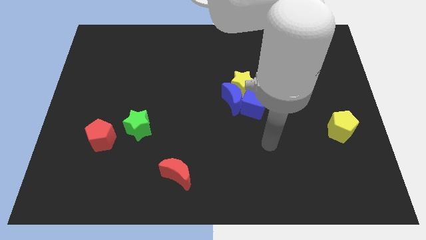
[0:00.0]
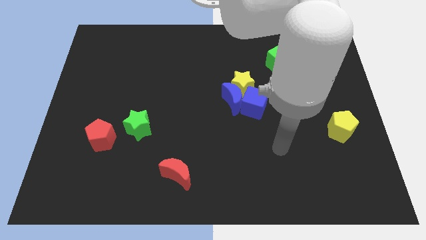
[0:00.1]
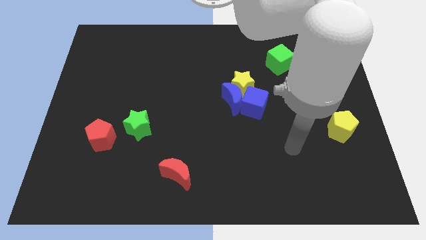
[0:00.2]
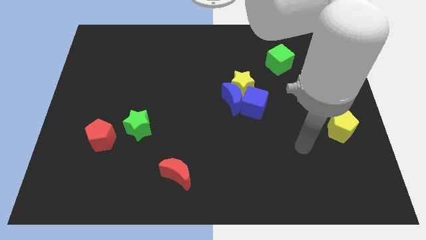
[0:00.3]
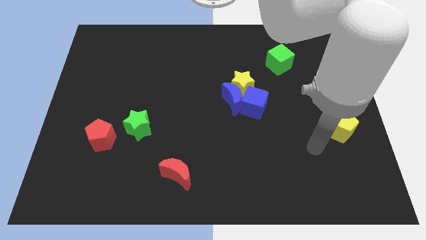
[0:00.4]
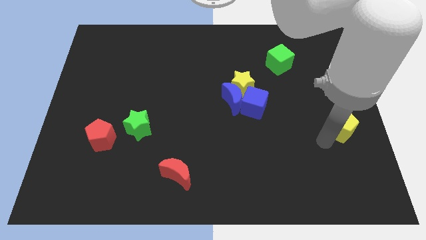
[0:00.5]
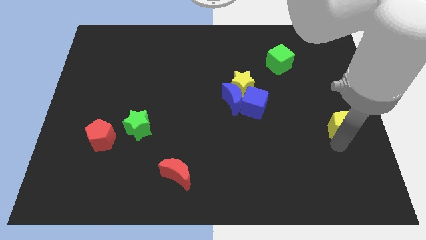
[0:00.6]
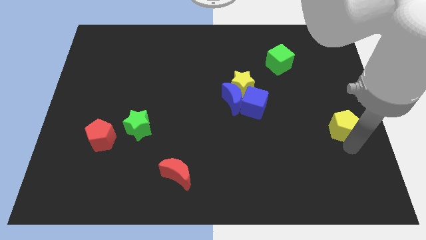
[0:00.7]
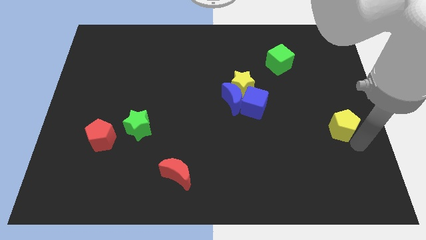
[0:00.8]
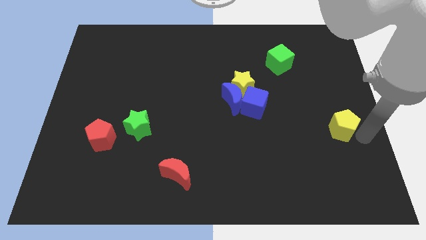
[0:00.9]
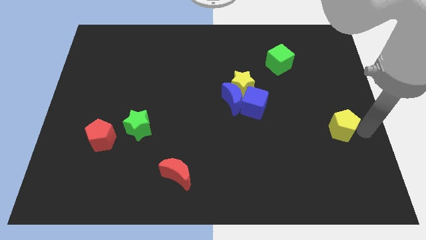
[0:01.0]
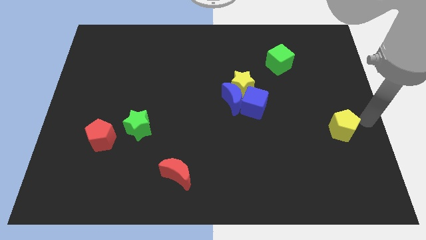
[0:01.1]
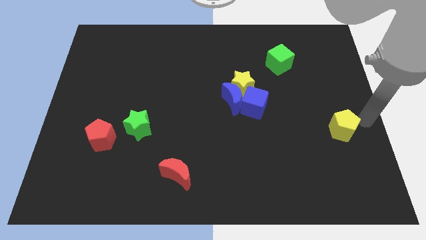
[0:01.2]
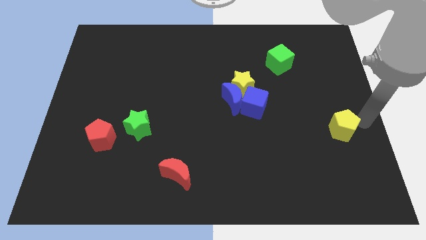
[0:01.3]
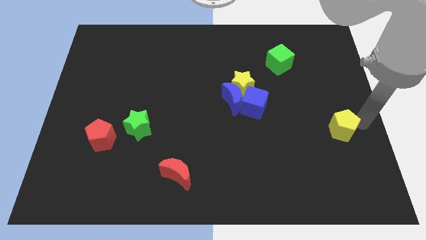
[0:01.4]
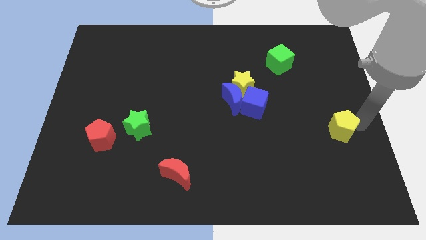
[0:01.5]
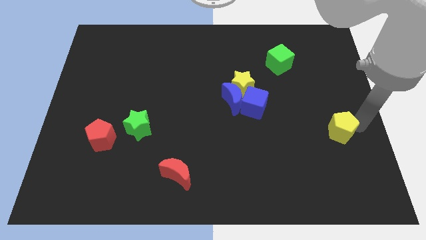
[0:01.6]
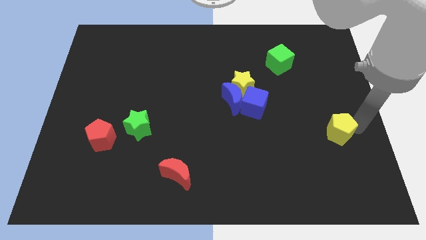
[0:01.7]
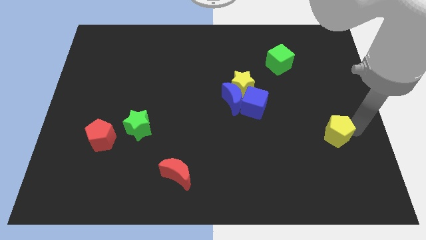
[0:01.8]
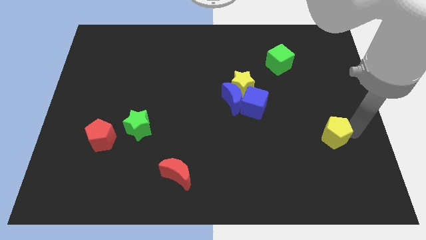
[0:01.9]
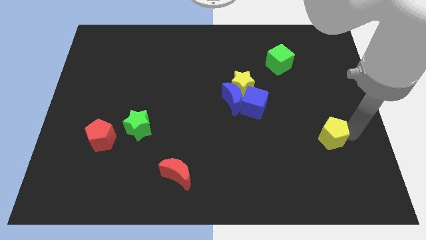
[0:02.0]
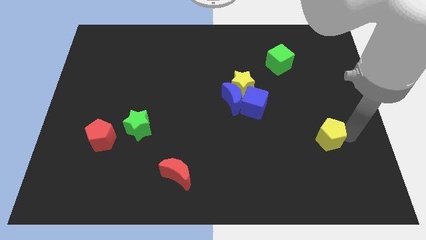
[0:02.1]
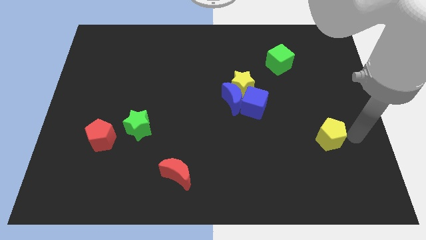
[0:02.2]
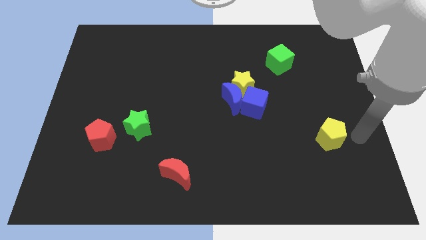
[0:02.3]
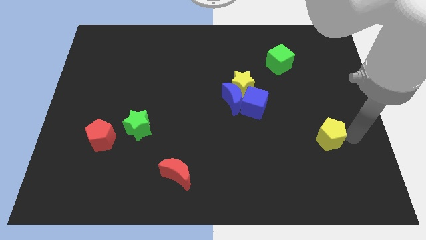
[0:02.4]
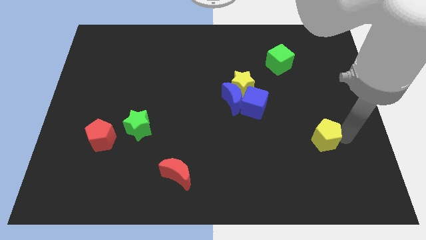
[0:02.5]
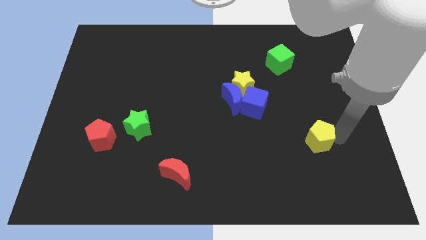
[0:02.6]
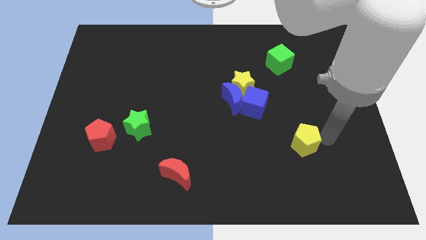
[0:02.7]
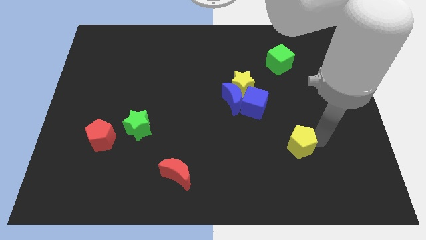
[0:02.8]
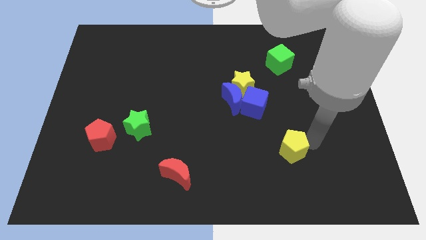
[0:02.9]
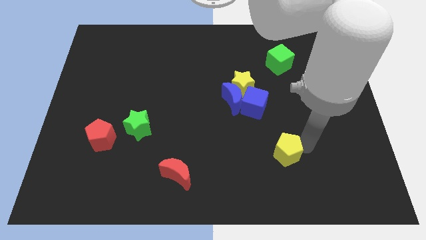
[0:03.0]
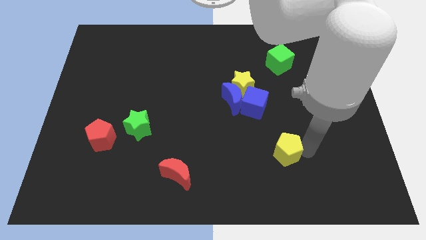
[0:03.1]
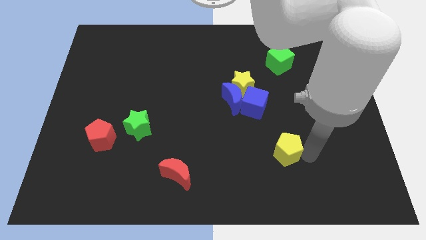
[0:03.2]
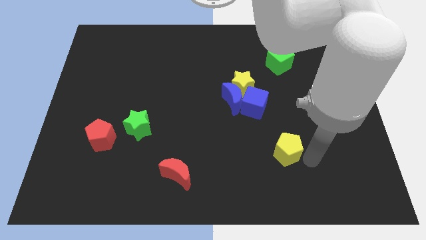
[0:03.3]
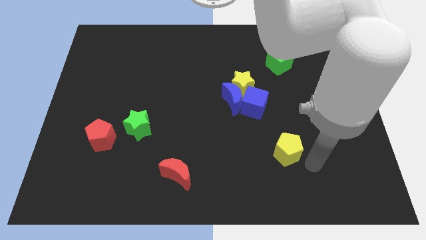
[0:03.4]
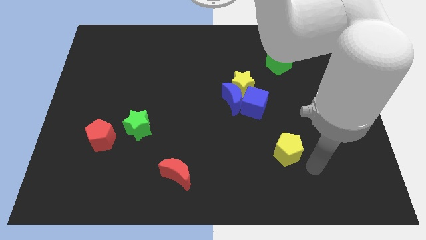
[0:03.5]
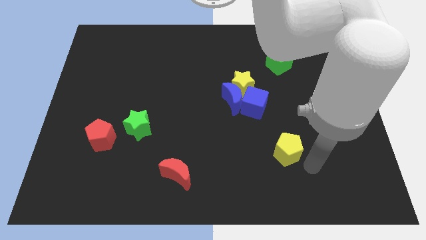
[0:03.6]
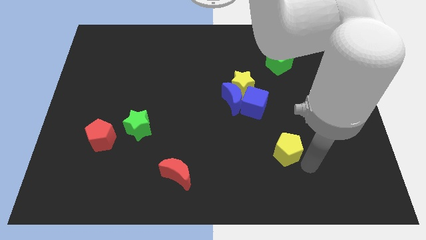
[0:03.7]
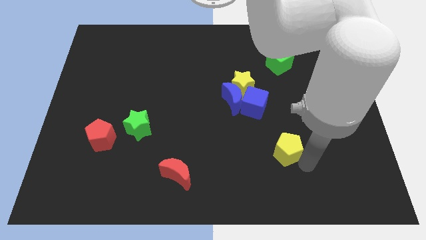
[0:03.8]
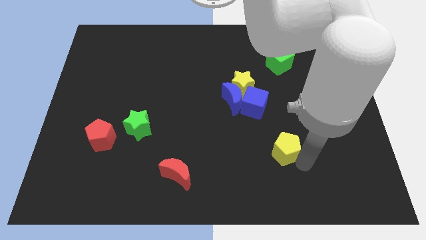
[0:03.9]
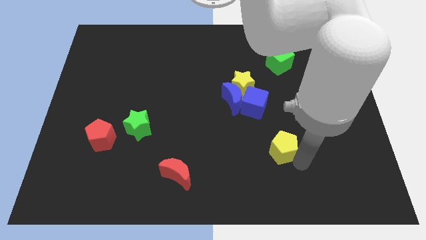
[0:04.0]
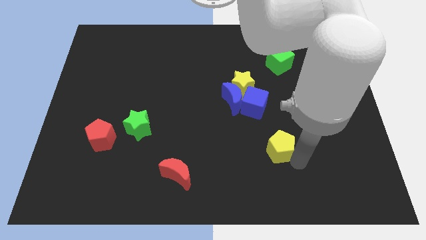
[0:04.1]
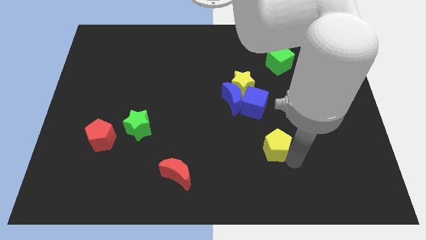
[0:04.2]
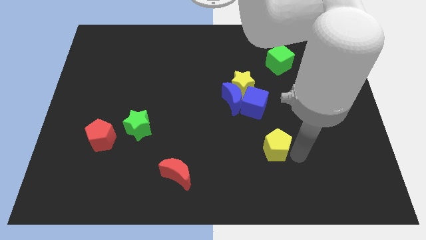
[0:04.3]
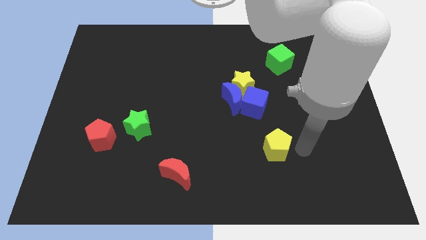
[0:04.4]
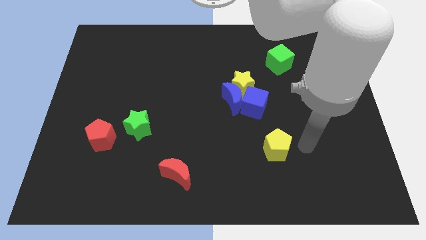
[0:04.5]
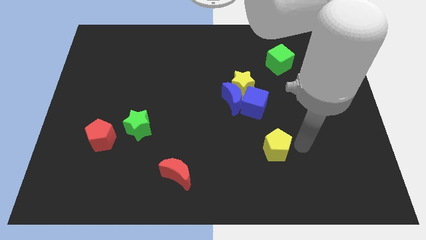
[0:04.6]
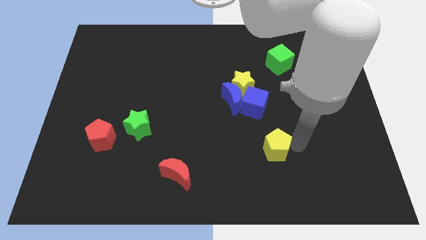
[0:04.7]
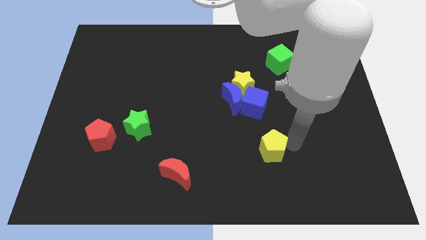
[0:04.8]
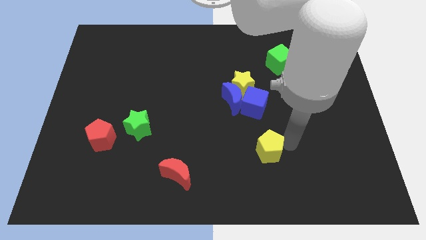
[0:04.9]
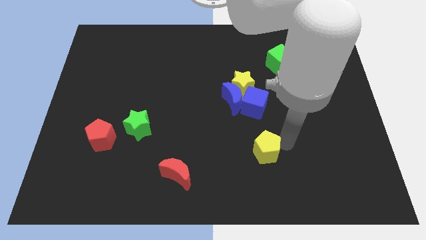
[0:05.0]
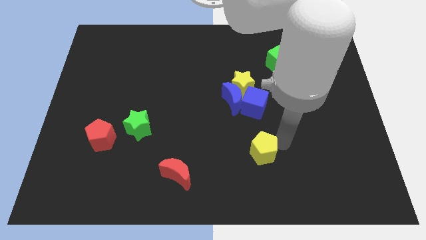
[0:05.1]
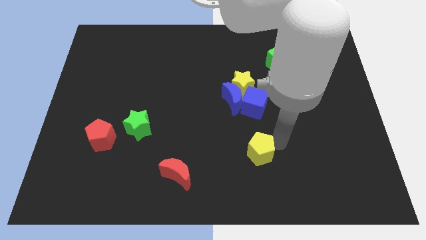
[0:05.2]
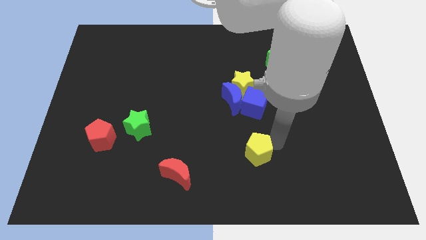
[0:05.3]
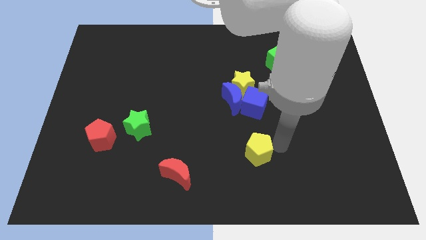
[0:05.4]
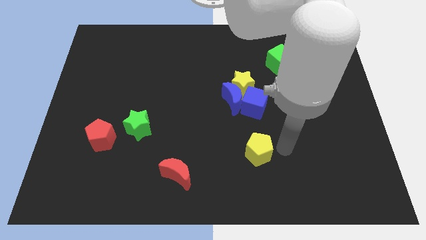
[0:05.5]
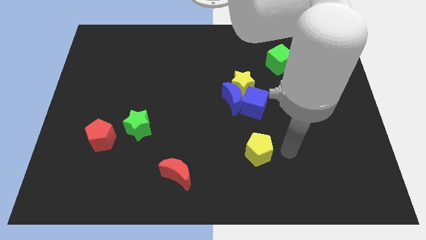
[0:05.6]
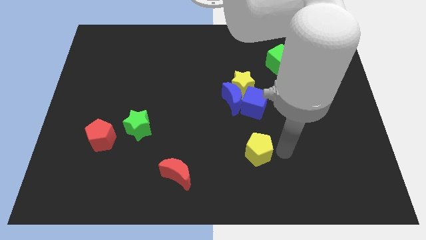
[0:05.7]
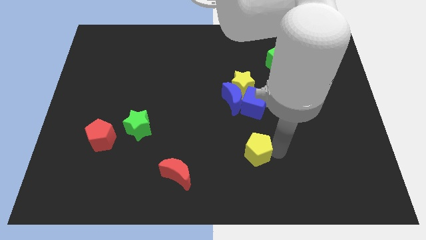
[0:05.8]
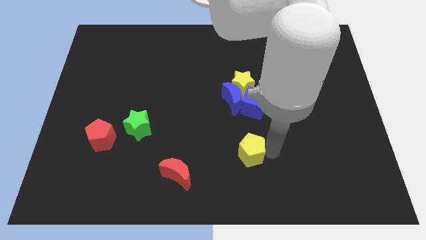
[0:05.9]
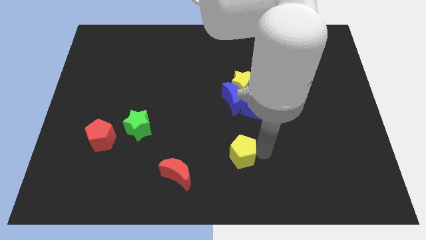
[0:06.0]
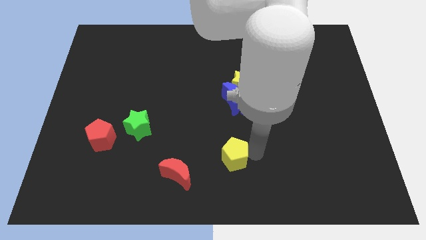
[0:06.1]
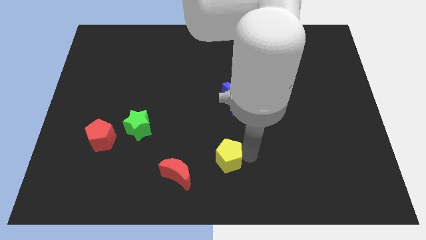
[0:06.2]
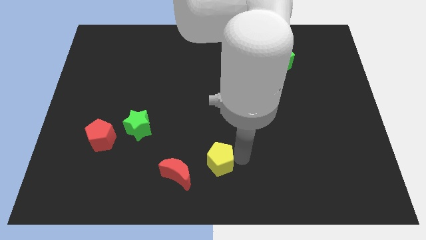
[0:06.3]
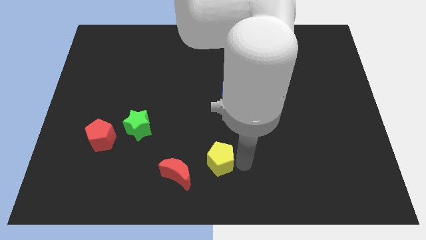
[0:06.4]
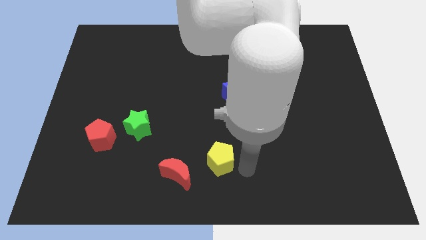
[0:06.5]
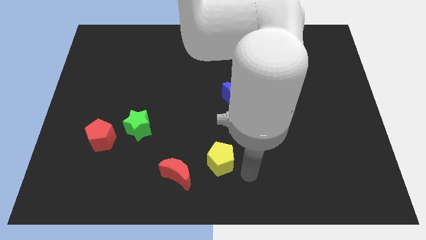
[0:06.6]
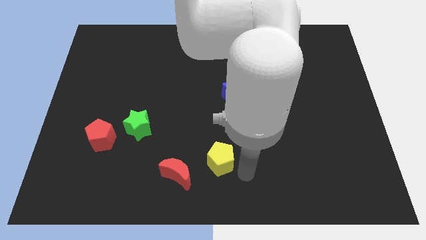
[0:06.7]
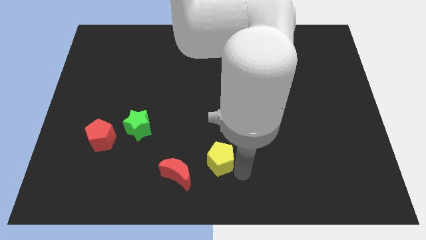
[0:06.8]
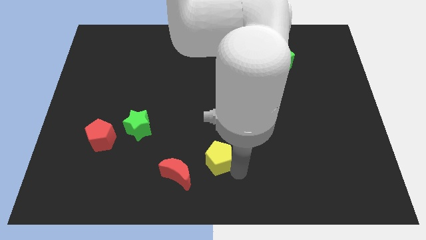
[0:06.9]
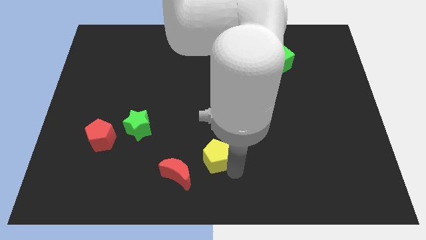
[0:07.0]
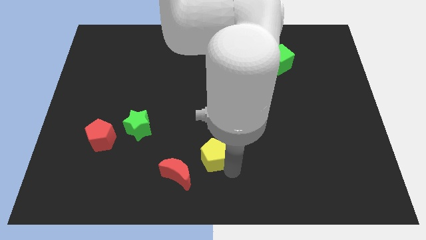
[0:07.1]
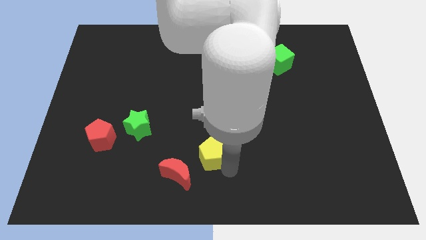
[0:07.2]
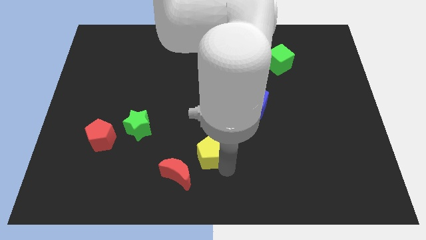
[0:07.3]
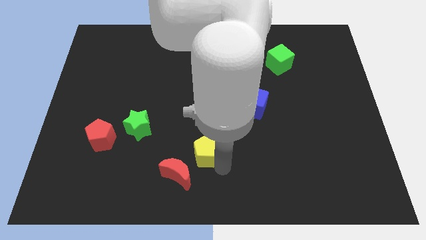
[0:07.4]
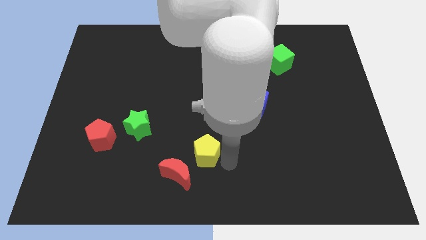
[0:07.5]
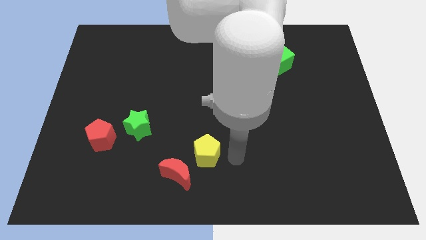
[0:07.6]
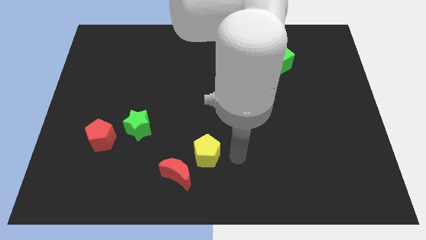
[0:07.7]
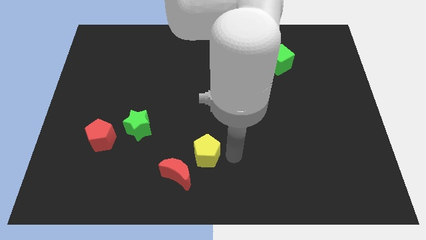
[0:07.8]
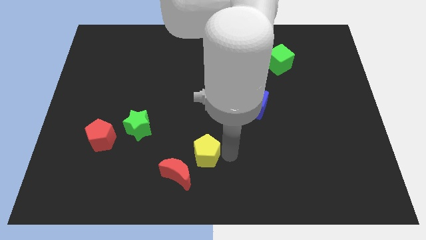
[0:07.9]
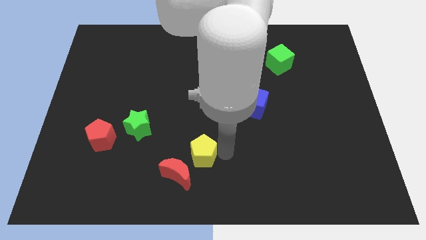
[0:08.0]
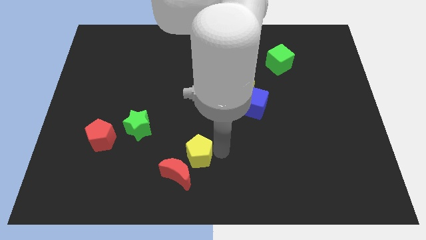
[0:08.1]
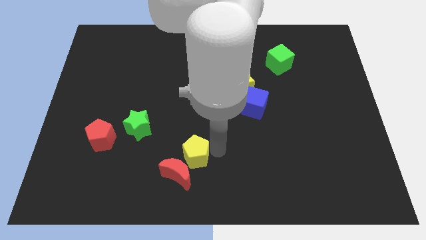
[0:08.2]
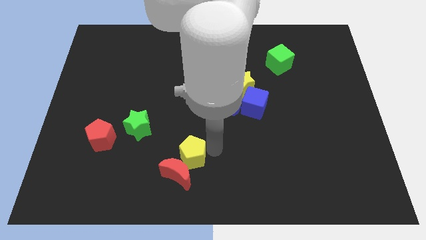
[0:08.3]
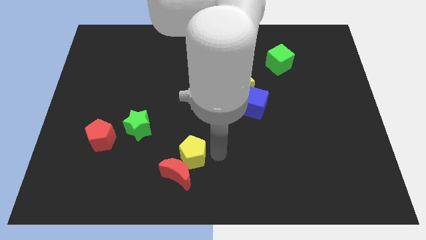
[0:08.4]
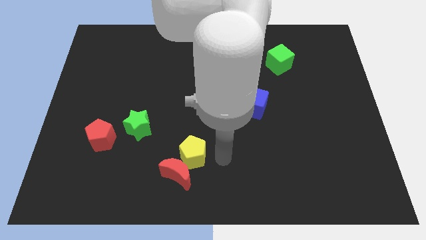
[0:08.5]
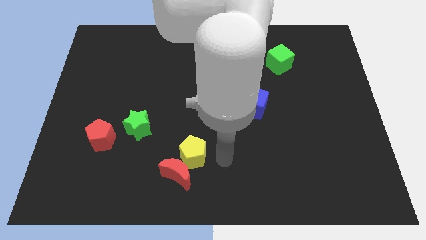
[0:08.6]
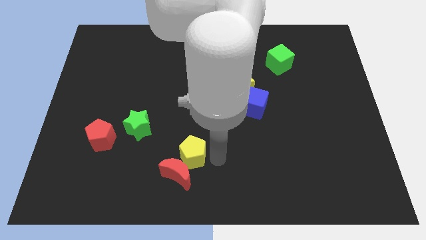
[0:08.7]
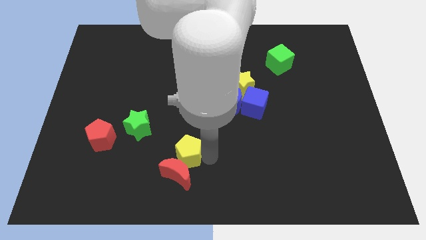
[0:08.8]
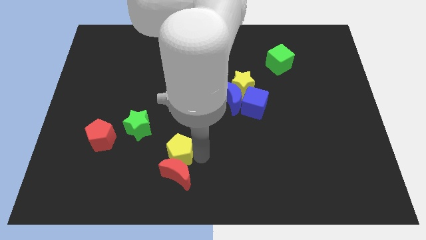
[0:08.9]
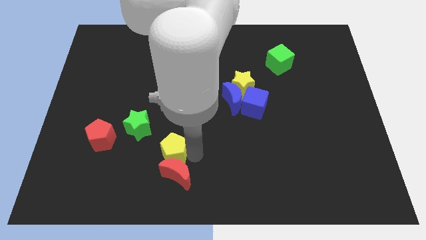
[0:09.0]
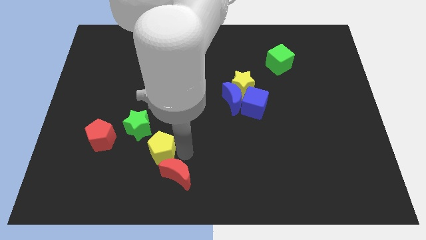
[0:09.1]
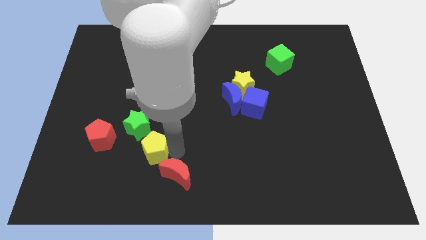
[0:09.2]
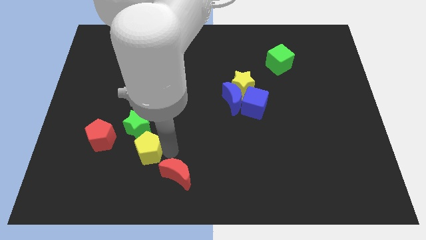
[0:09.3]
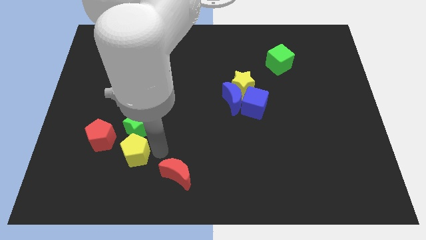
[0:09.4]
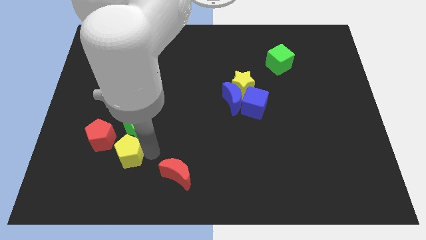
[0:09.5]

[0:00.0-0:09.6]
slide the yellow pentagon to the bottom left of the green star
